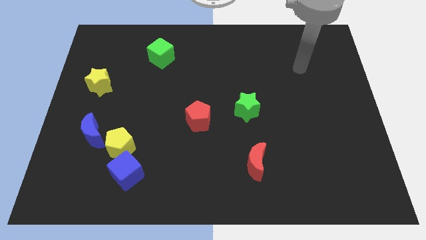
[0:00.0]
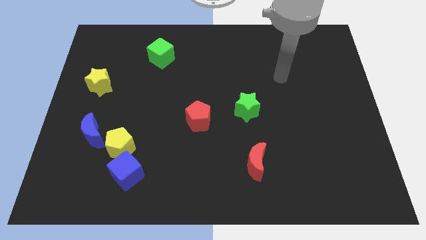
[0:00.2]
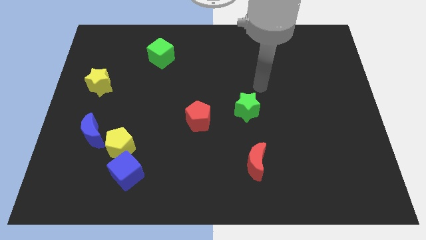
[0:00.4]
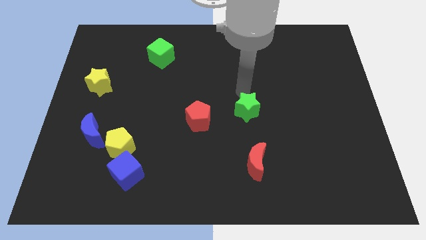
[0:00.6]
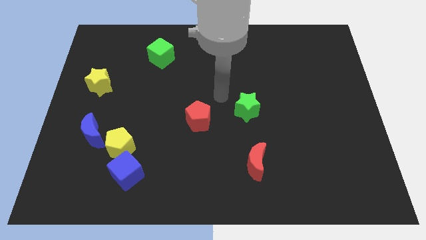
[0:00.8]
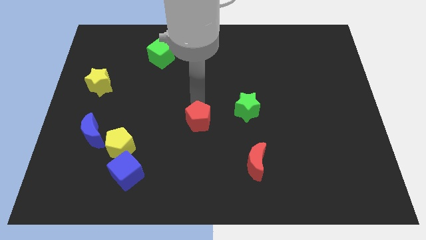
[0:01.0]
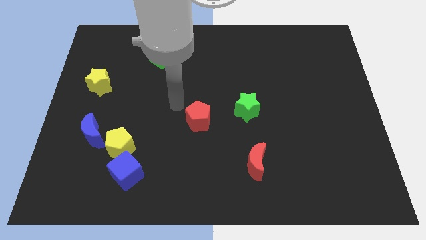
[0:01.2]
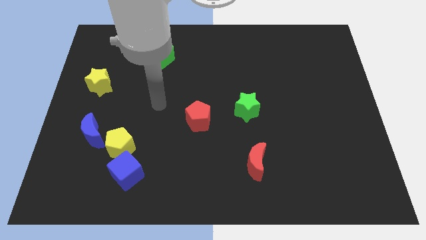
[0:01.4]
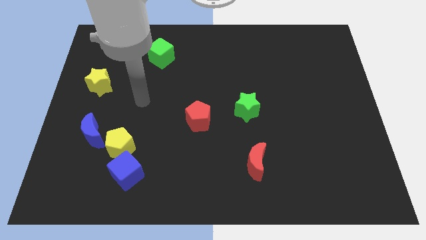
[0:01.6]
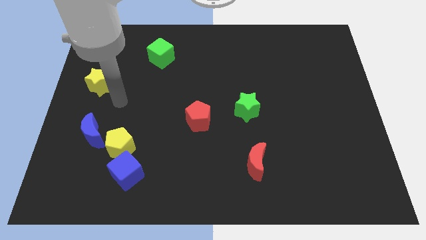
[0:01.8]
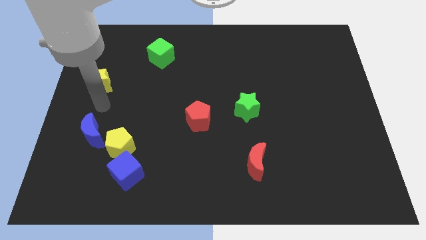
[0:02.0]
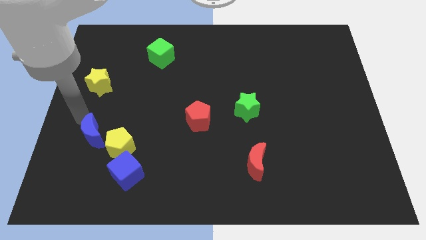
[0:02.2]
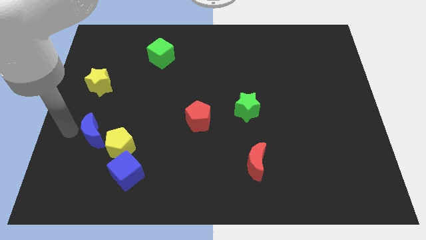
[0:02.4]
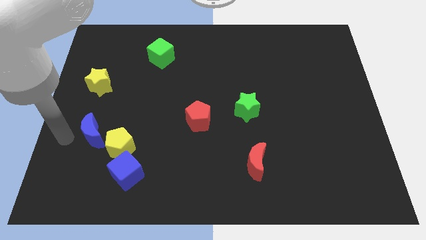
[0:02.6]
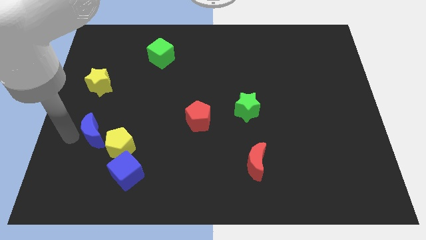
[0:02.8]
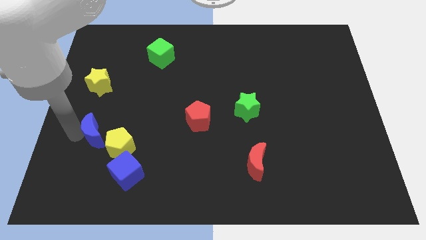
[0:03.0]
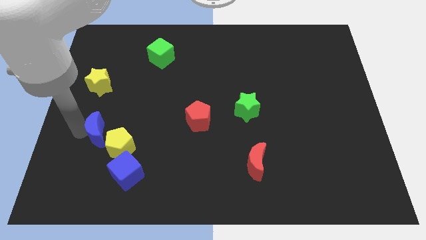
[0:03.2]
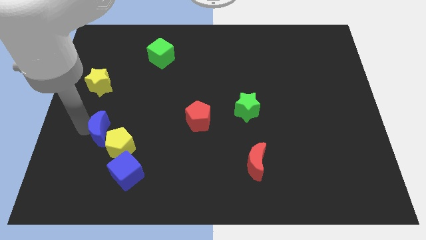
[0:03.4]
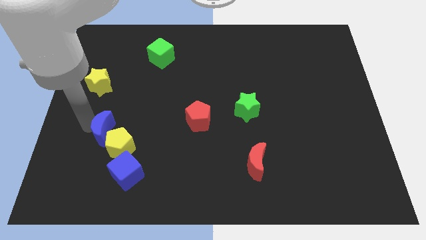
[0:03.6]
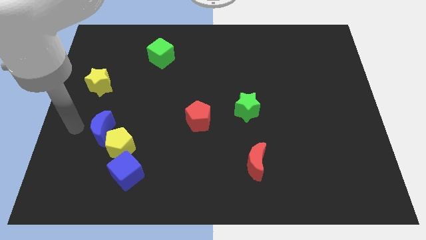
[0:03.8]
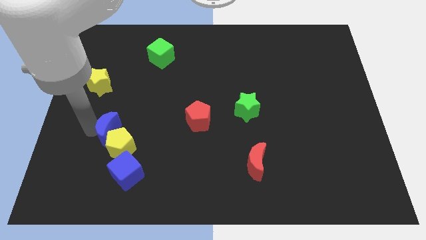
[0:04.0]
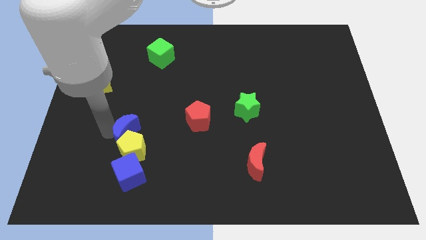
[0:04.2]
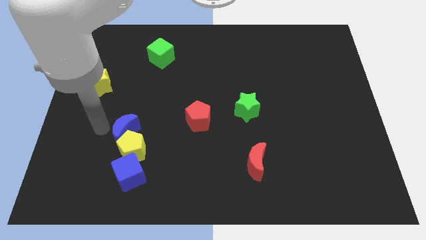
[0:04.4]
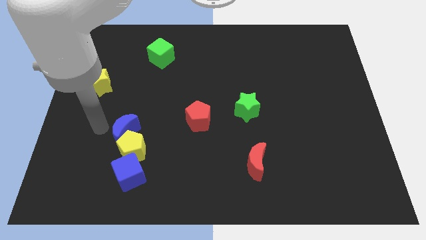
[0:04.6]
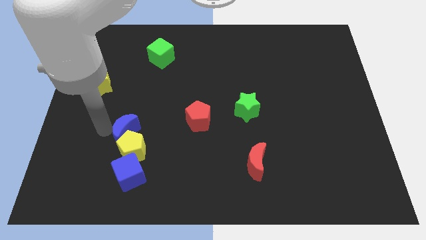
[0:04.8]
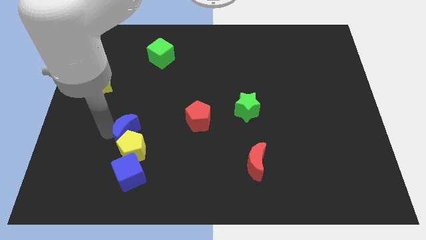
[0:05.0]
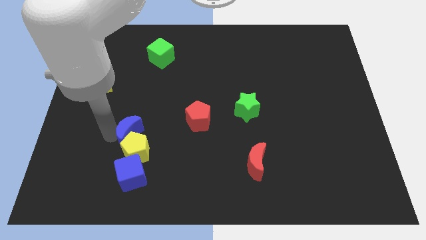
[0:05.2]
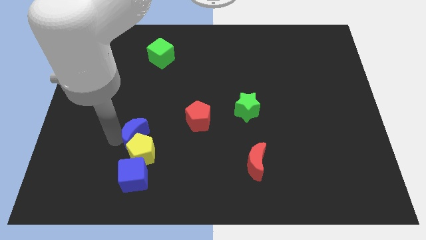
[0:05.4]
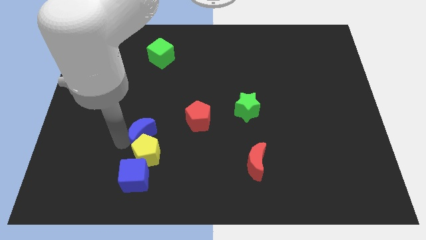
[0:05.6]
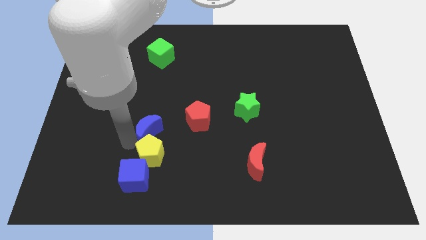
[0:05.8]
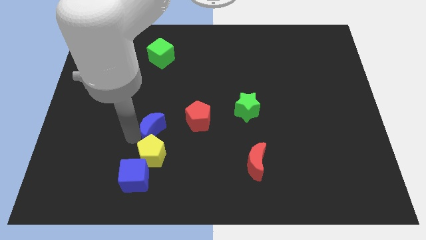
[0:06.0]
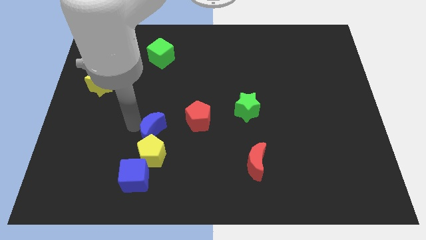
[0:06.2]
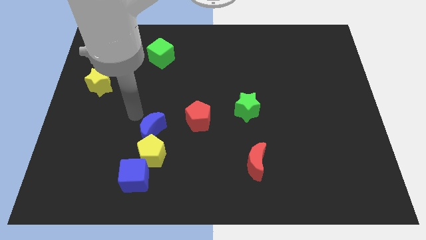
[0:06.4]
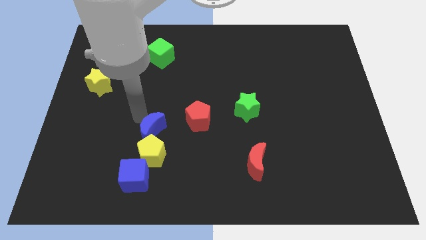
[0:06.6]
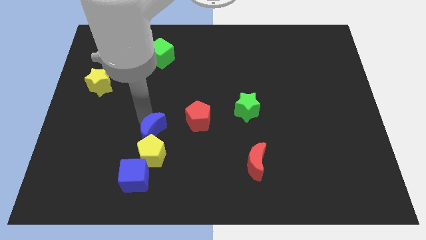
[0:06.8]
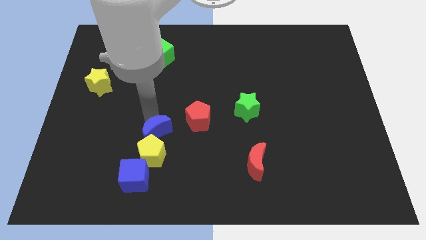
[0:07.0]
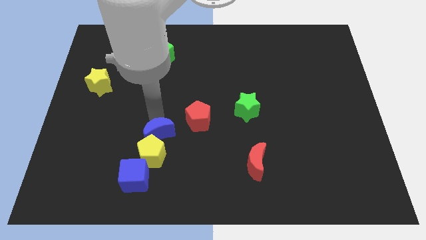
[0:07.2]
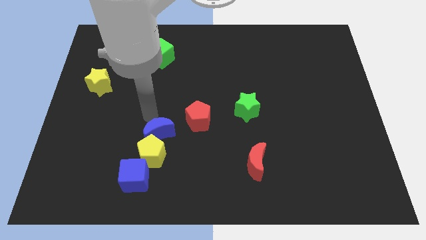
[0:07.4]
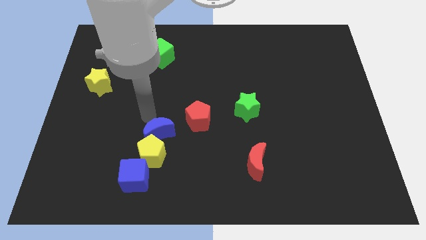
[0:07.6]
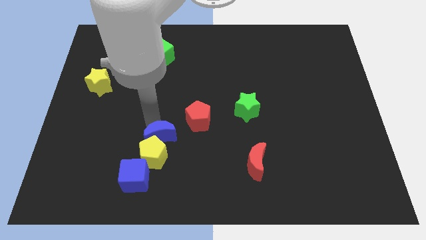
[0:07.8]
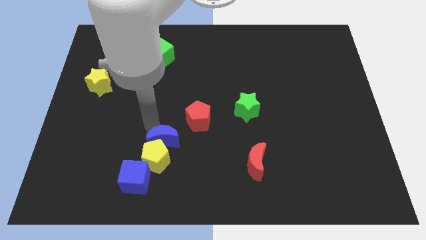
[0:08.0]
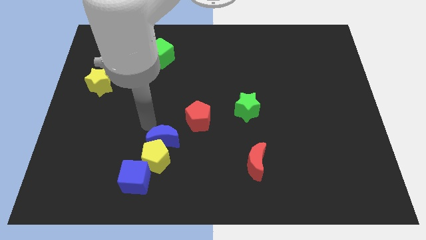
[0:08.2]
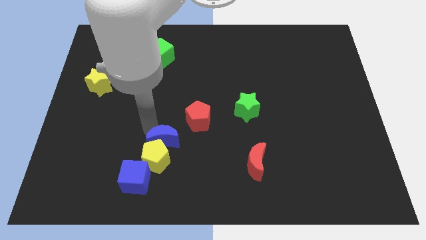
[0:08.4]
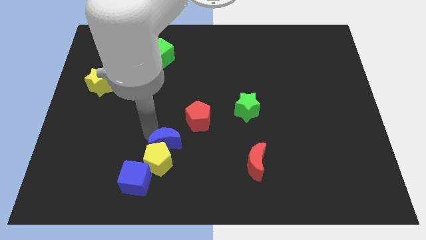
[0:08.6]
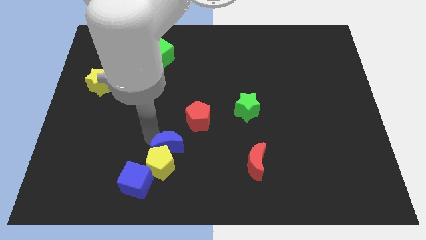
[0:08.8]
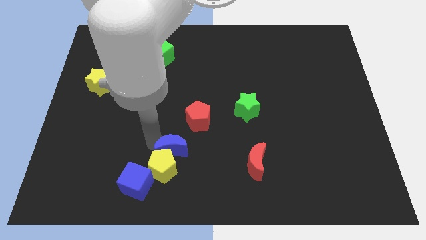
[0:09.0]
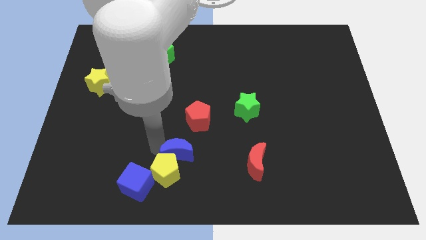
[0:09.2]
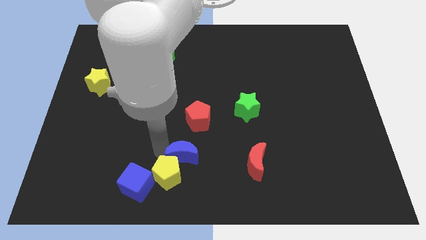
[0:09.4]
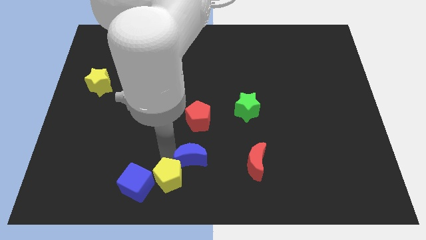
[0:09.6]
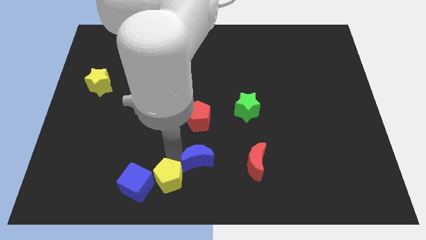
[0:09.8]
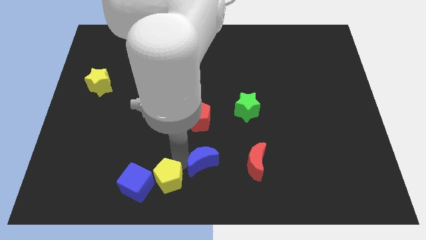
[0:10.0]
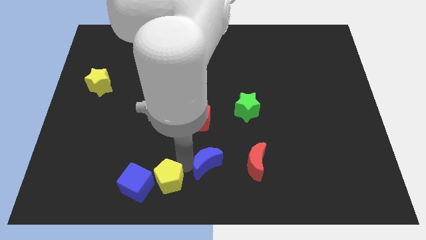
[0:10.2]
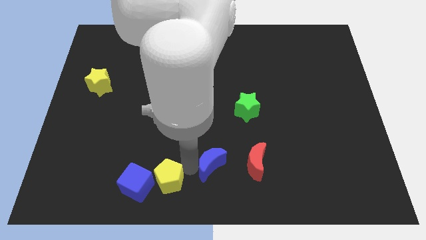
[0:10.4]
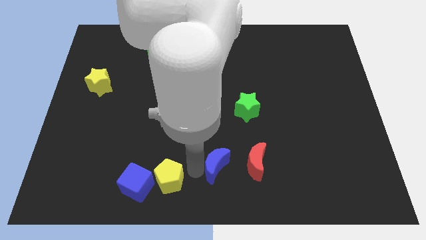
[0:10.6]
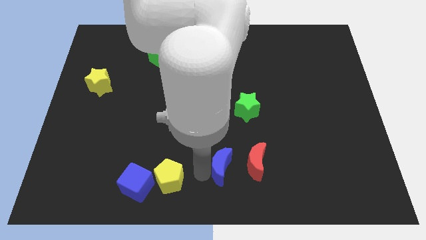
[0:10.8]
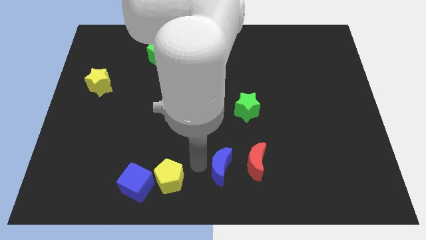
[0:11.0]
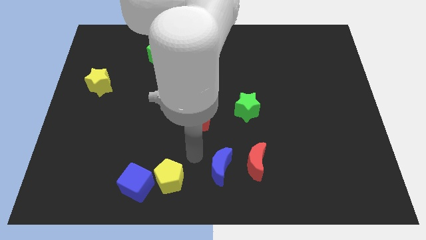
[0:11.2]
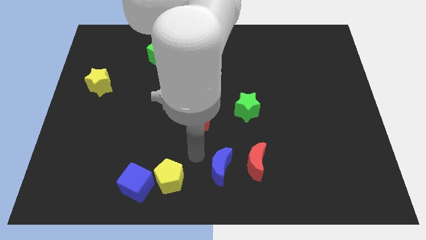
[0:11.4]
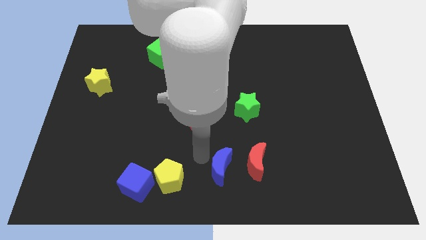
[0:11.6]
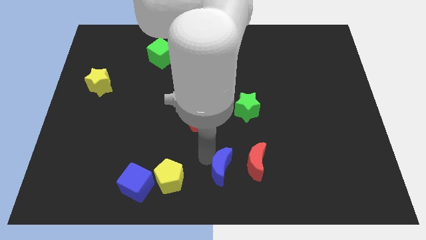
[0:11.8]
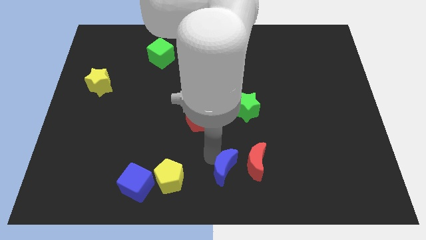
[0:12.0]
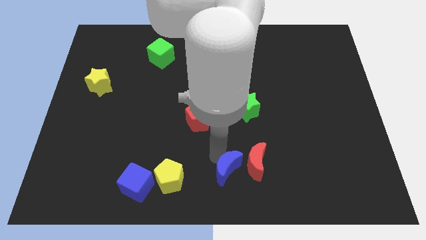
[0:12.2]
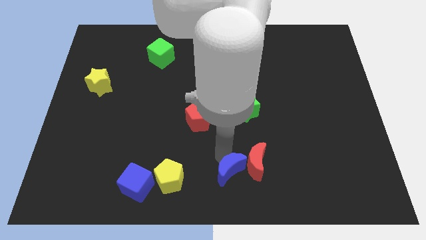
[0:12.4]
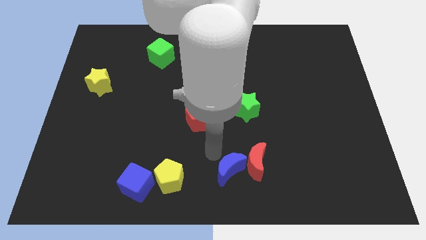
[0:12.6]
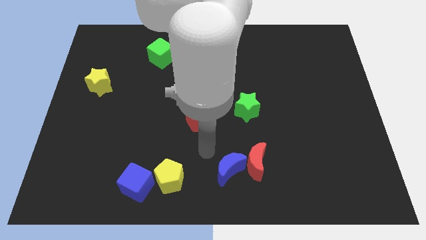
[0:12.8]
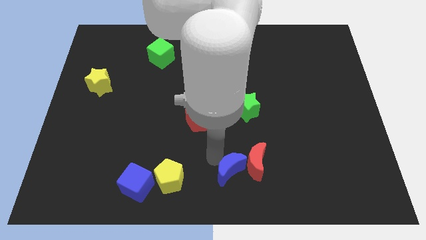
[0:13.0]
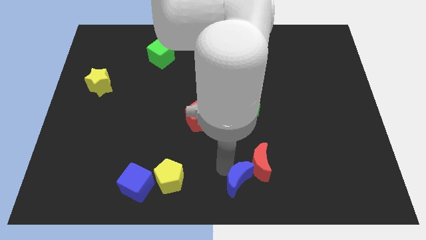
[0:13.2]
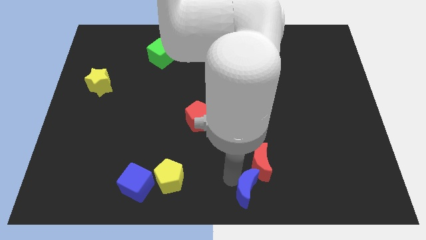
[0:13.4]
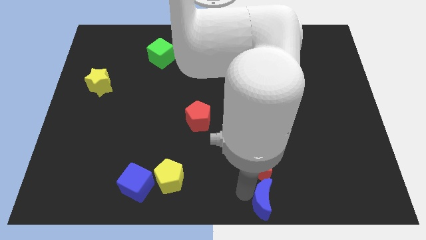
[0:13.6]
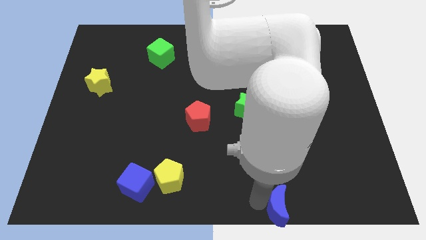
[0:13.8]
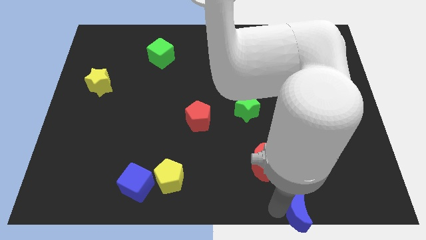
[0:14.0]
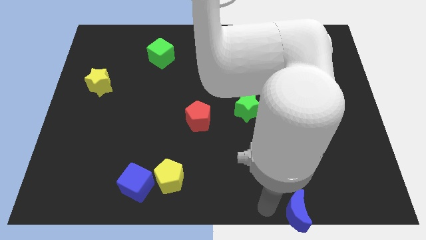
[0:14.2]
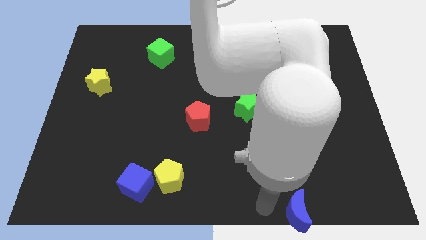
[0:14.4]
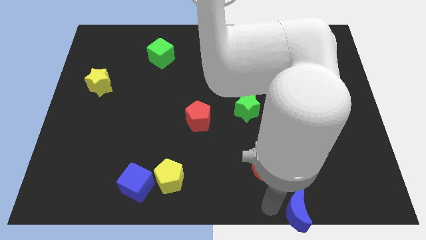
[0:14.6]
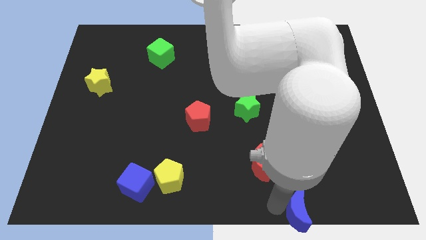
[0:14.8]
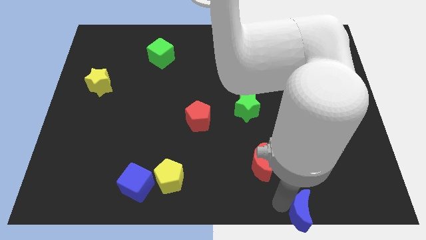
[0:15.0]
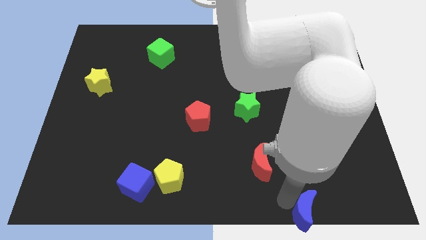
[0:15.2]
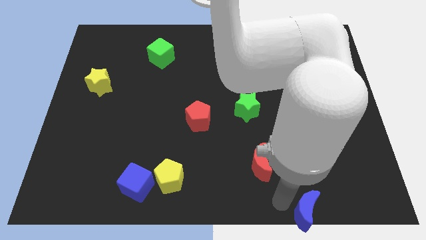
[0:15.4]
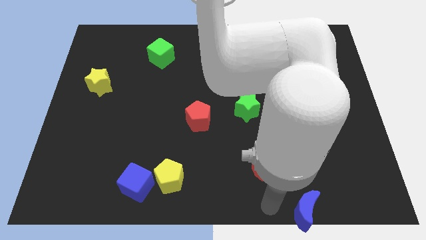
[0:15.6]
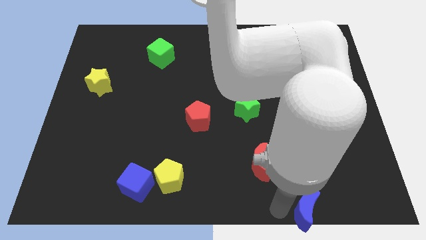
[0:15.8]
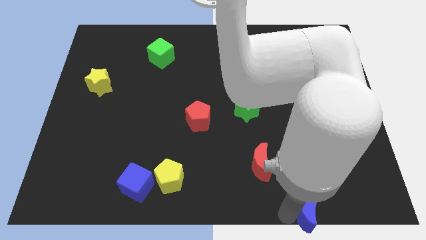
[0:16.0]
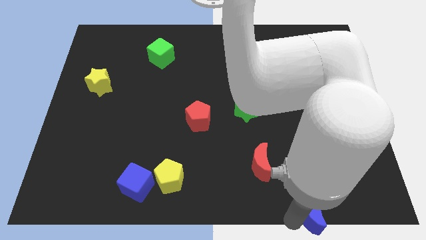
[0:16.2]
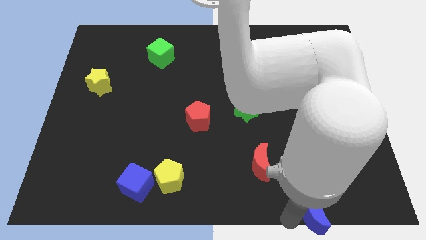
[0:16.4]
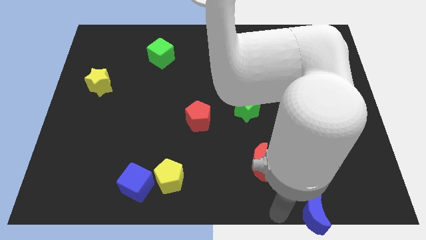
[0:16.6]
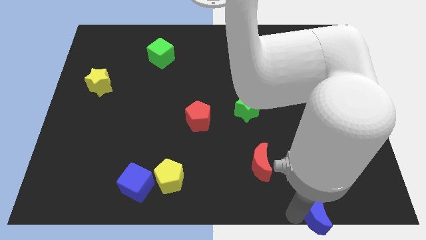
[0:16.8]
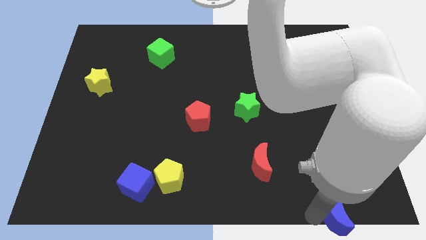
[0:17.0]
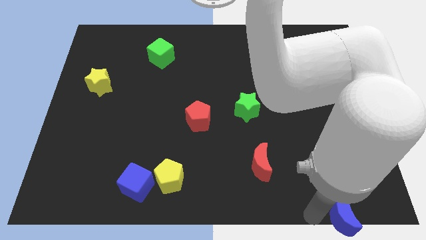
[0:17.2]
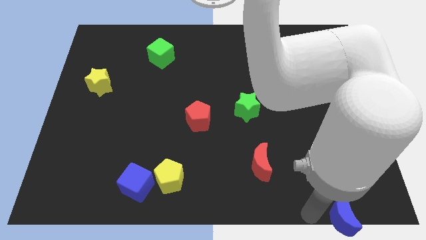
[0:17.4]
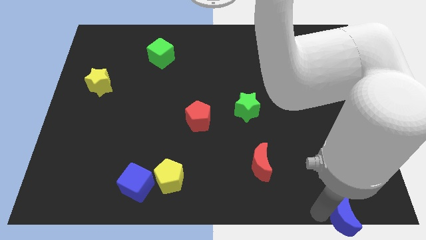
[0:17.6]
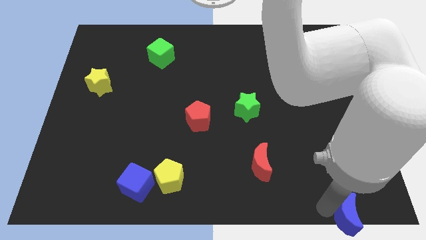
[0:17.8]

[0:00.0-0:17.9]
push the blue moon to the bottom right of the board
